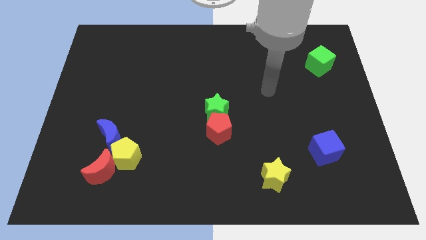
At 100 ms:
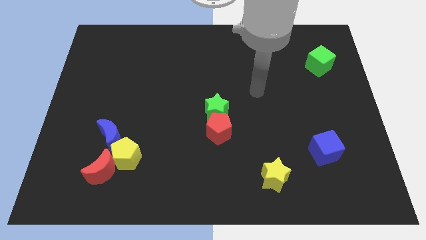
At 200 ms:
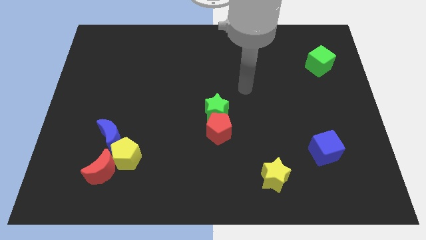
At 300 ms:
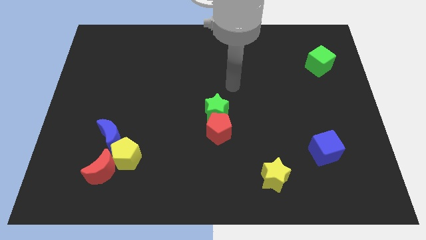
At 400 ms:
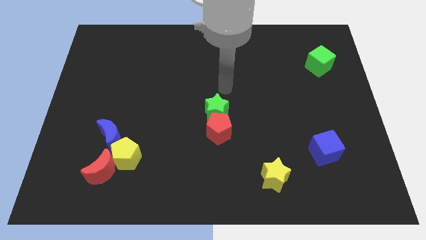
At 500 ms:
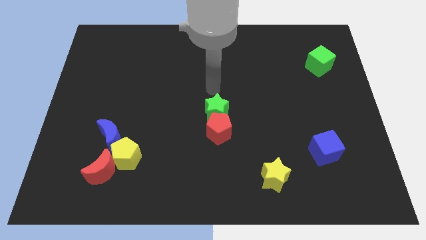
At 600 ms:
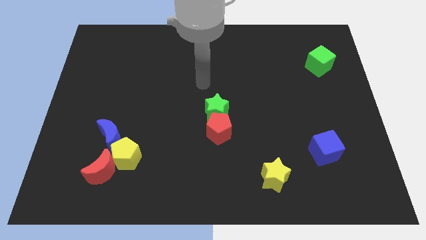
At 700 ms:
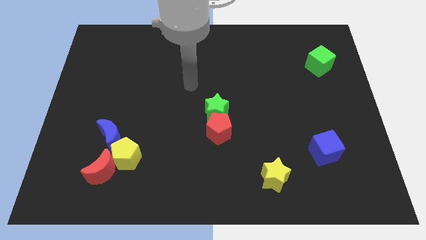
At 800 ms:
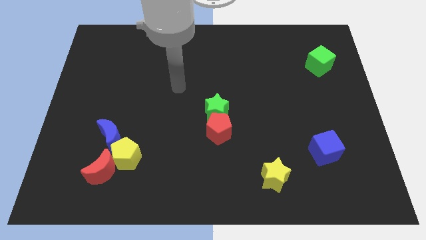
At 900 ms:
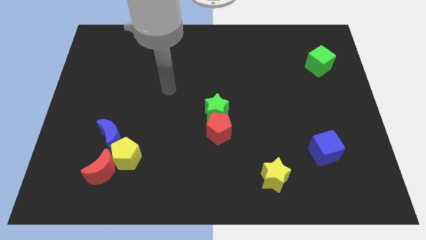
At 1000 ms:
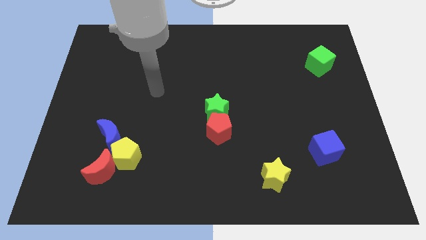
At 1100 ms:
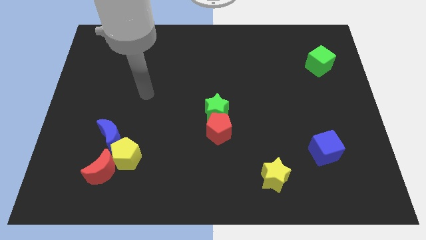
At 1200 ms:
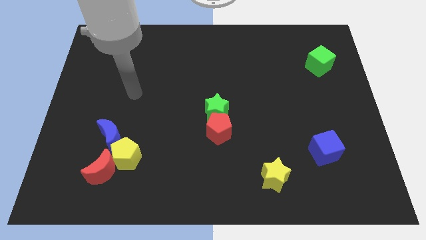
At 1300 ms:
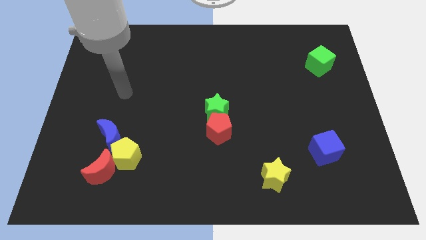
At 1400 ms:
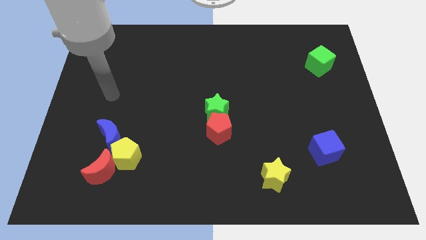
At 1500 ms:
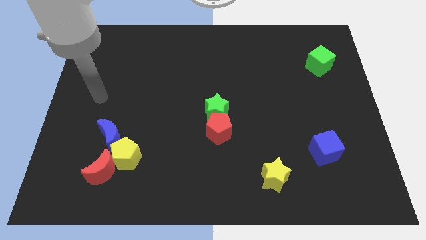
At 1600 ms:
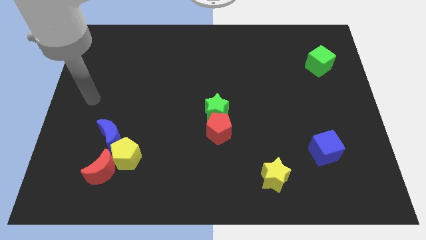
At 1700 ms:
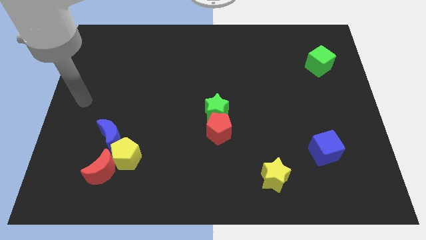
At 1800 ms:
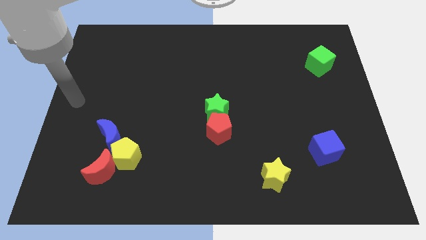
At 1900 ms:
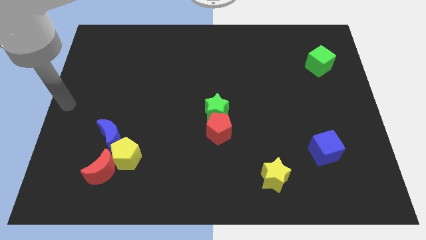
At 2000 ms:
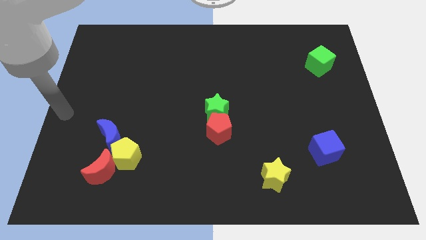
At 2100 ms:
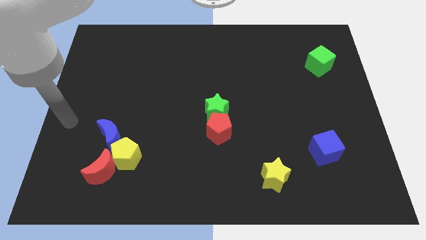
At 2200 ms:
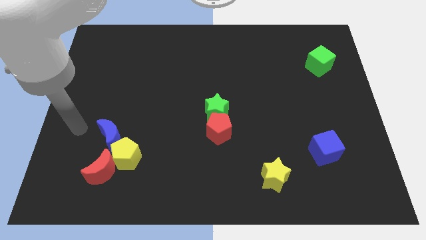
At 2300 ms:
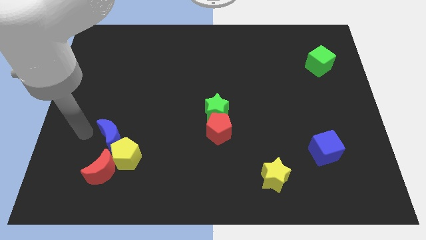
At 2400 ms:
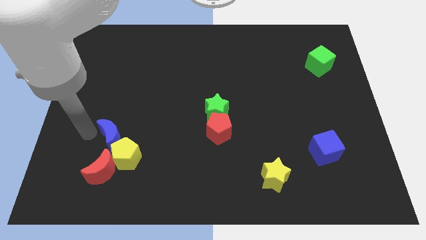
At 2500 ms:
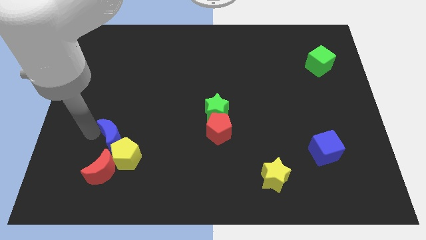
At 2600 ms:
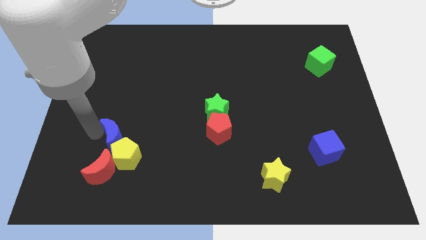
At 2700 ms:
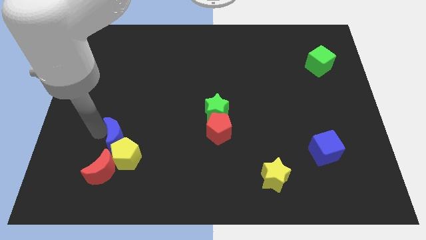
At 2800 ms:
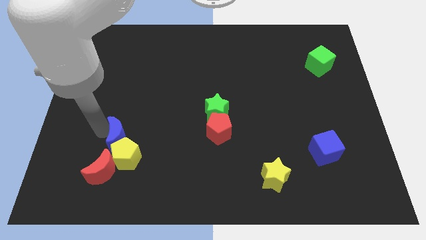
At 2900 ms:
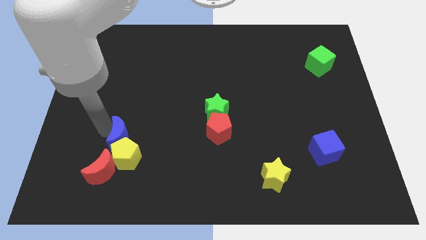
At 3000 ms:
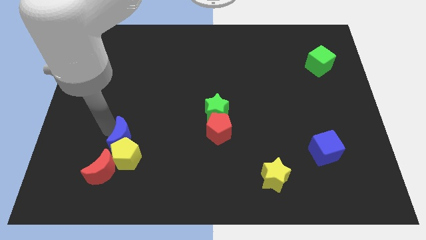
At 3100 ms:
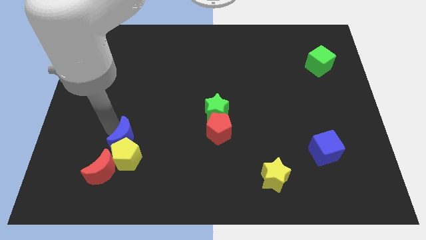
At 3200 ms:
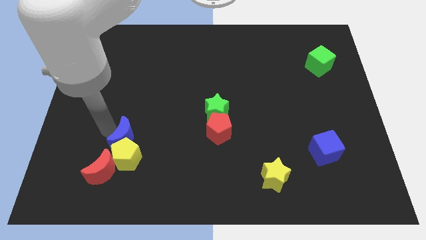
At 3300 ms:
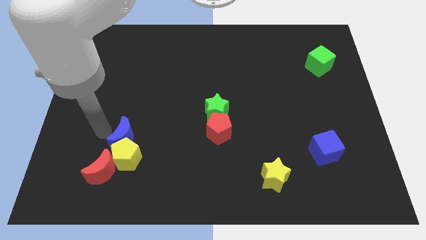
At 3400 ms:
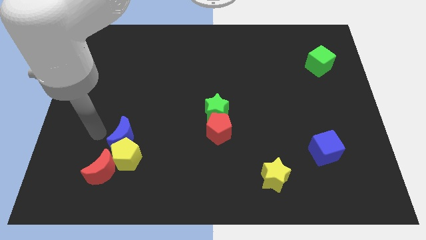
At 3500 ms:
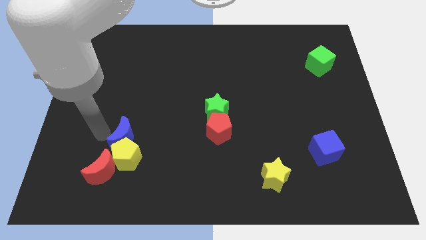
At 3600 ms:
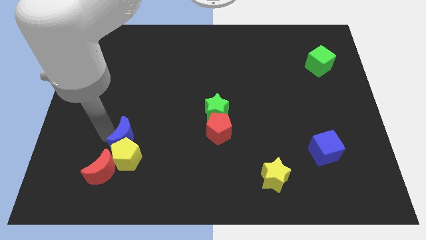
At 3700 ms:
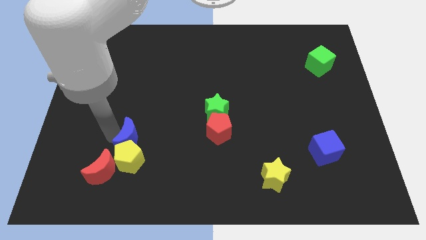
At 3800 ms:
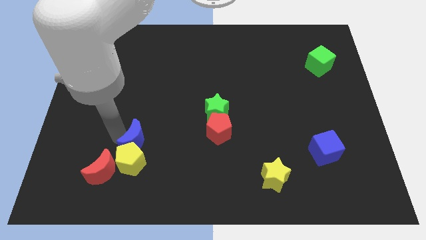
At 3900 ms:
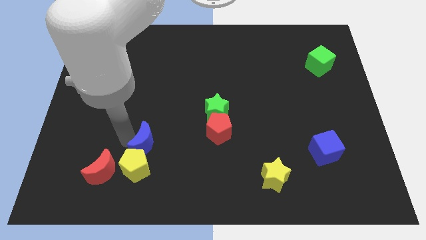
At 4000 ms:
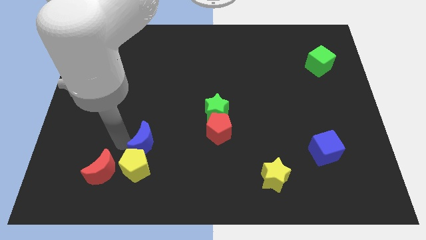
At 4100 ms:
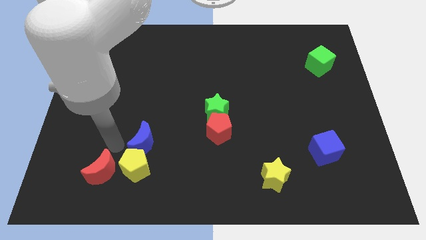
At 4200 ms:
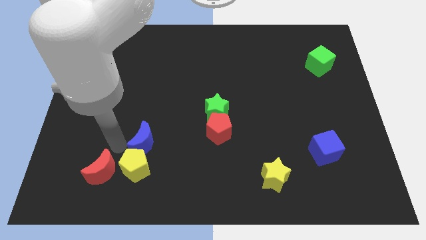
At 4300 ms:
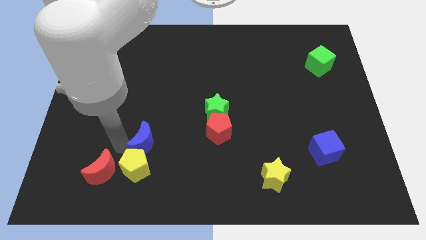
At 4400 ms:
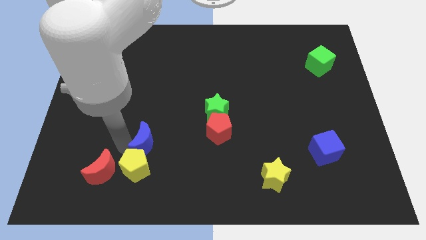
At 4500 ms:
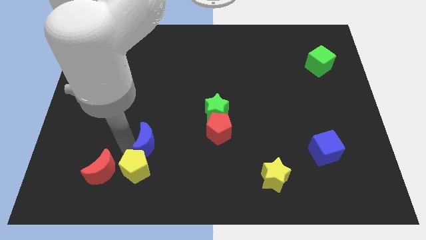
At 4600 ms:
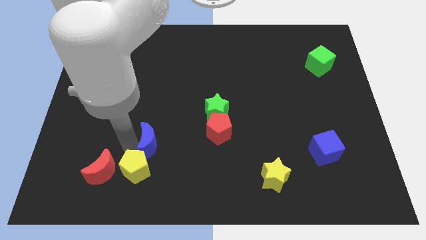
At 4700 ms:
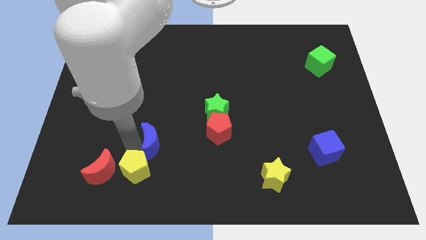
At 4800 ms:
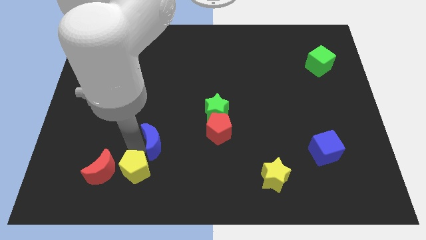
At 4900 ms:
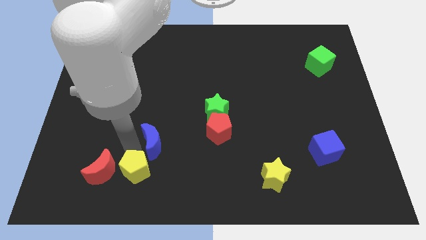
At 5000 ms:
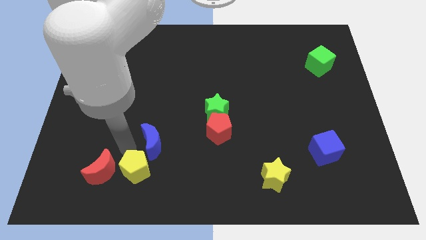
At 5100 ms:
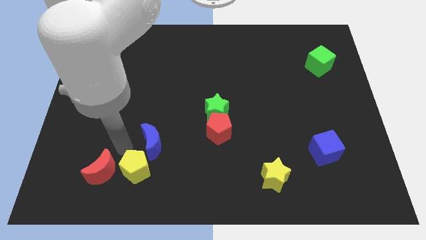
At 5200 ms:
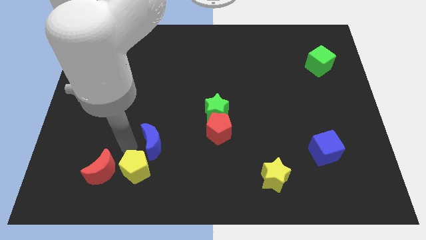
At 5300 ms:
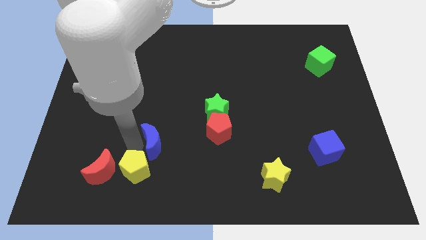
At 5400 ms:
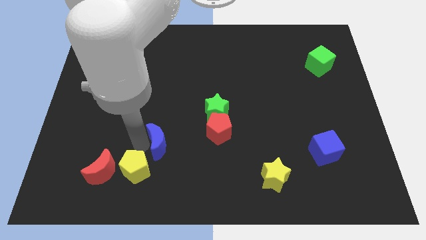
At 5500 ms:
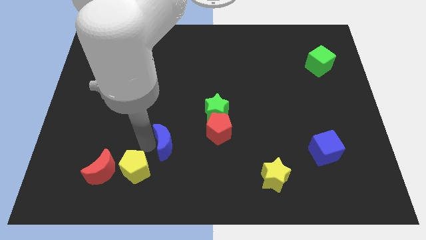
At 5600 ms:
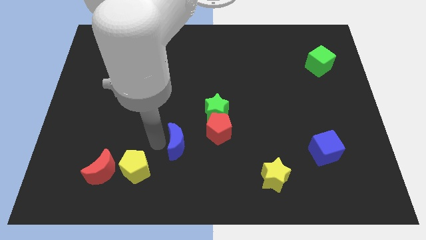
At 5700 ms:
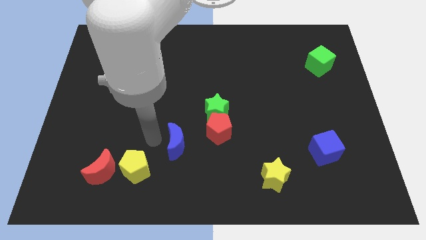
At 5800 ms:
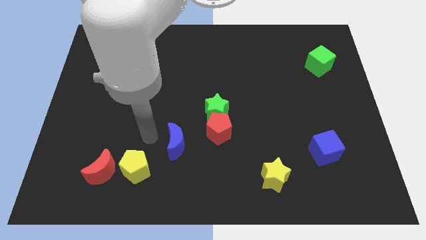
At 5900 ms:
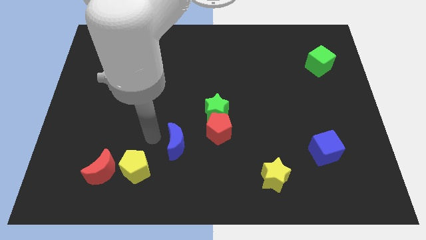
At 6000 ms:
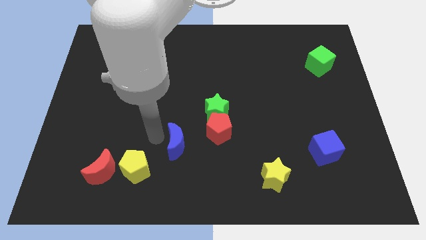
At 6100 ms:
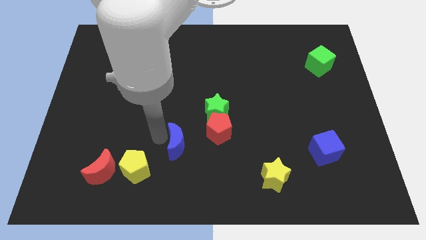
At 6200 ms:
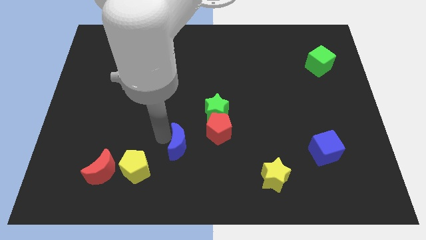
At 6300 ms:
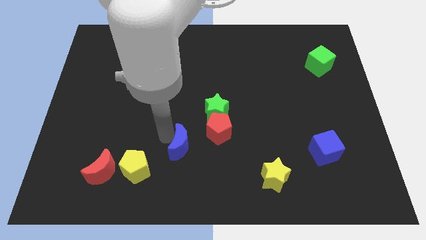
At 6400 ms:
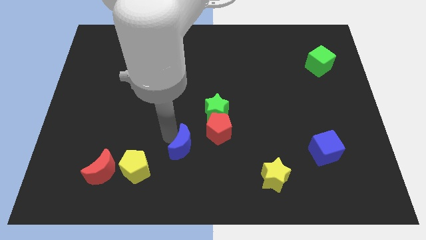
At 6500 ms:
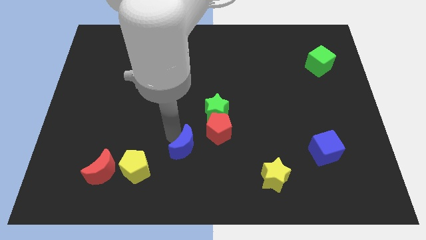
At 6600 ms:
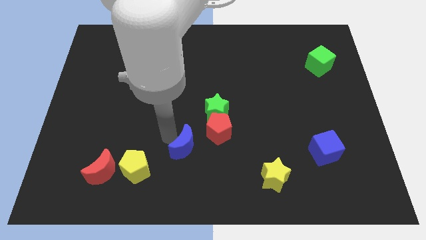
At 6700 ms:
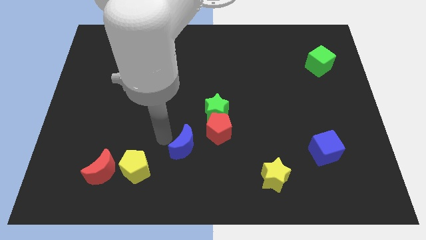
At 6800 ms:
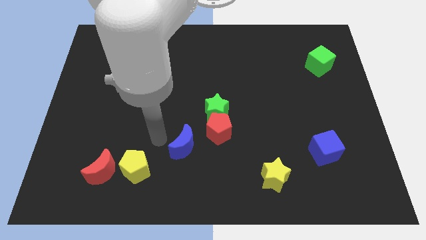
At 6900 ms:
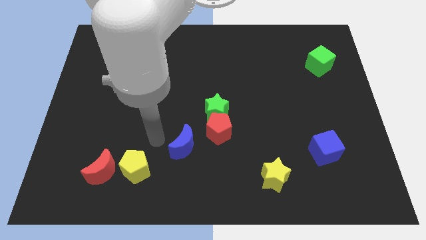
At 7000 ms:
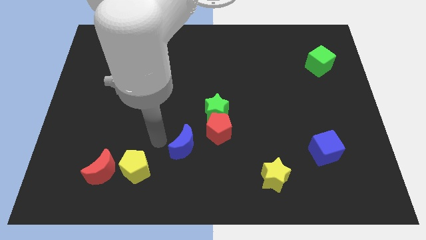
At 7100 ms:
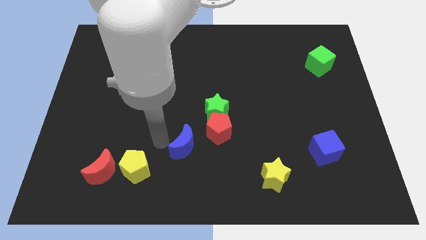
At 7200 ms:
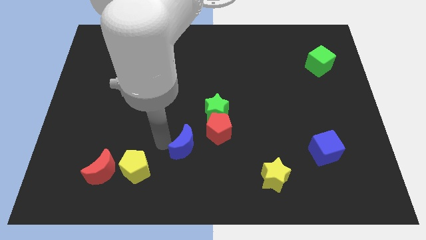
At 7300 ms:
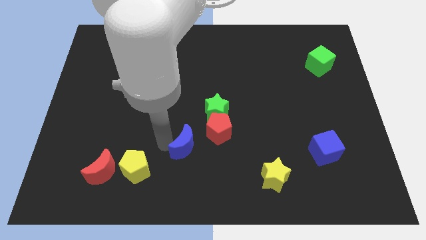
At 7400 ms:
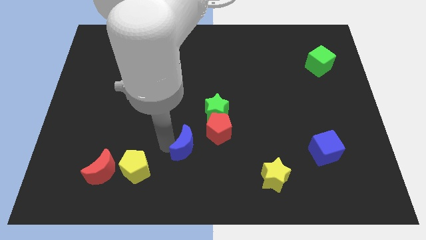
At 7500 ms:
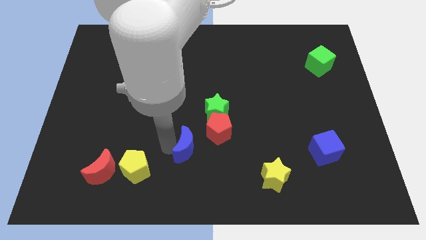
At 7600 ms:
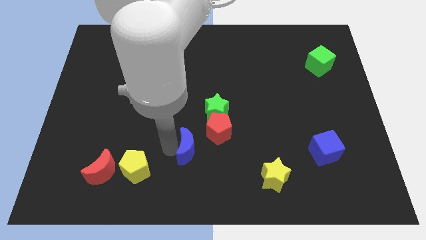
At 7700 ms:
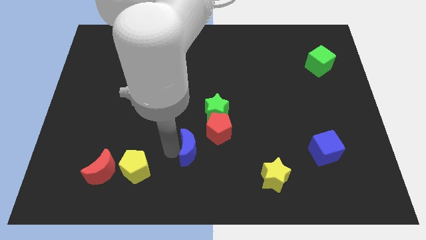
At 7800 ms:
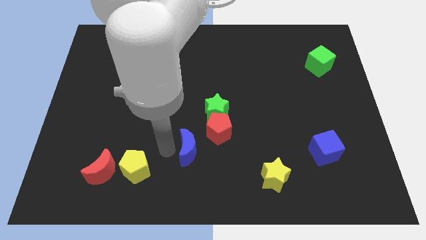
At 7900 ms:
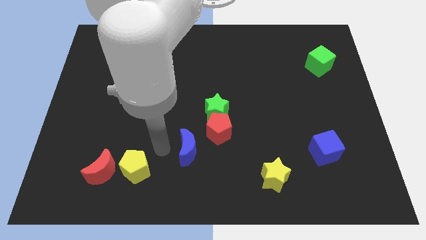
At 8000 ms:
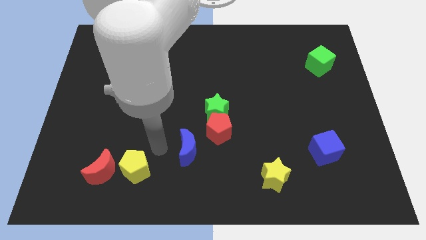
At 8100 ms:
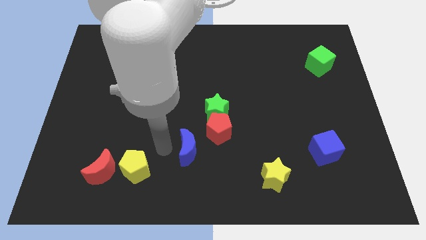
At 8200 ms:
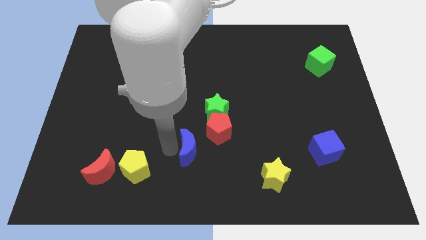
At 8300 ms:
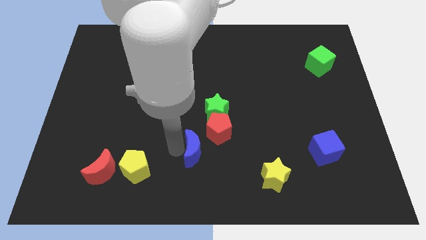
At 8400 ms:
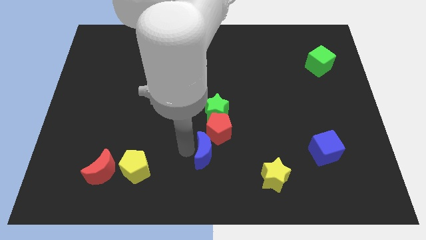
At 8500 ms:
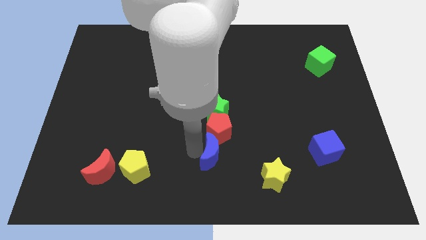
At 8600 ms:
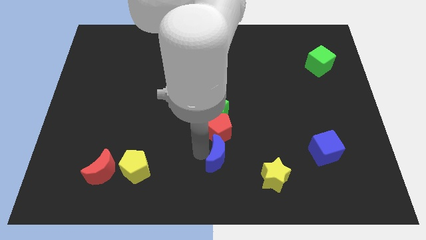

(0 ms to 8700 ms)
move the blue moon to the bottom right side of the red pentagon
